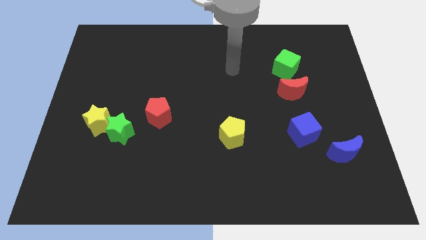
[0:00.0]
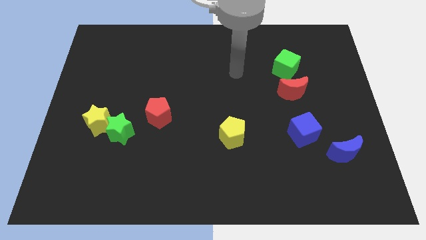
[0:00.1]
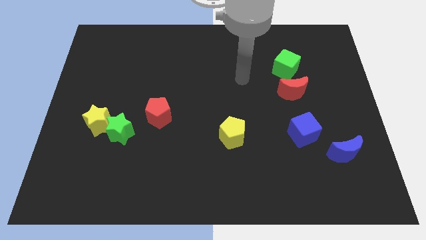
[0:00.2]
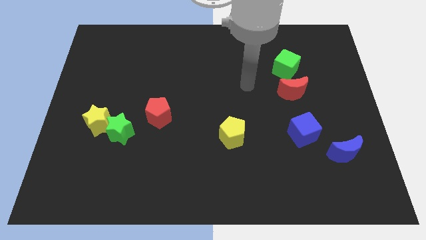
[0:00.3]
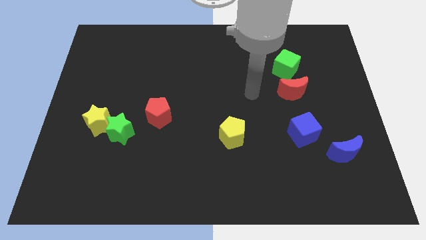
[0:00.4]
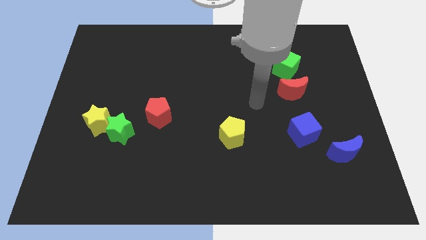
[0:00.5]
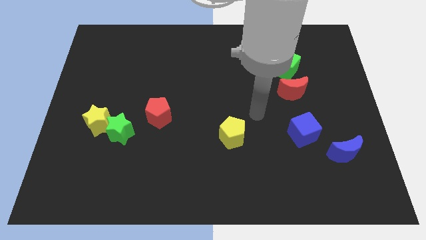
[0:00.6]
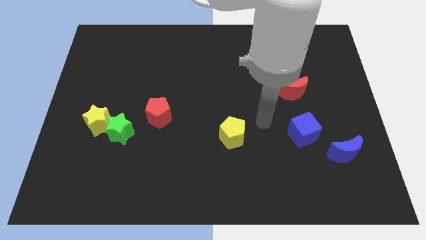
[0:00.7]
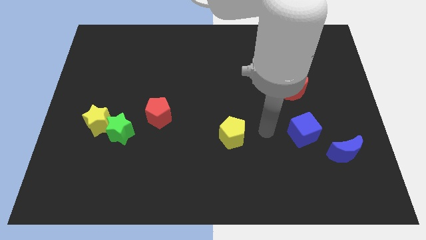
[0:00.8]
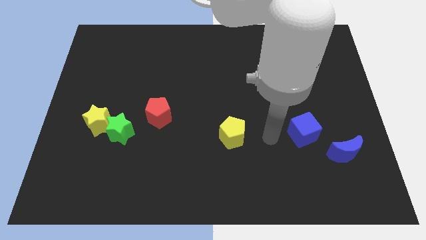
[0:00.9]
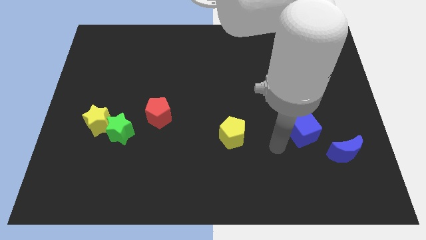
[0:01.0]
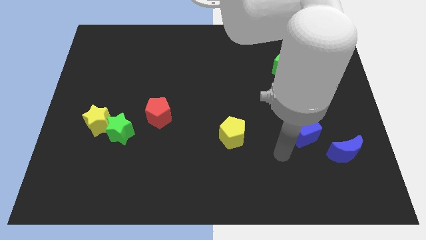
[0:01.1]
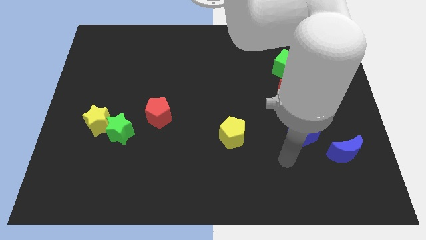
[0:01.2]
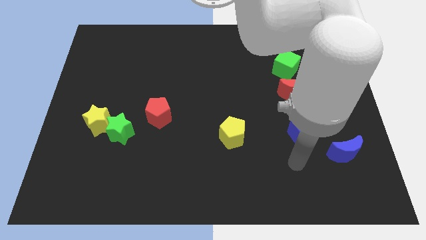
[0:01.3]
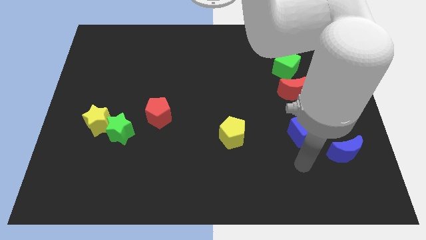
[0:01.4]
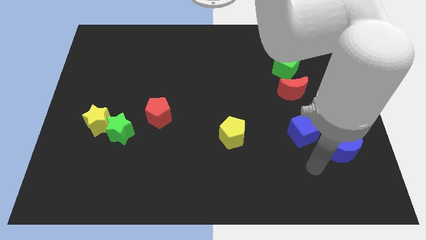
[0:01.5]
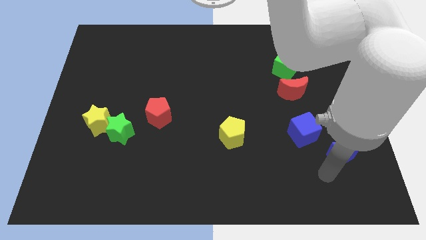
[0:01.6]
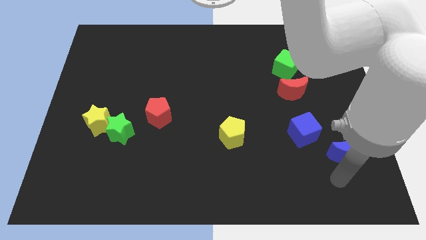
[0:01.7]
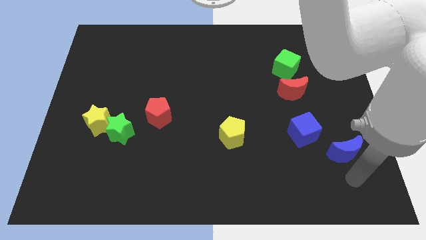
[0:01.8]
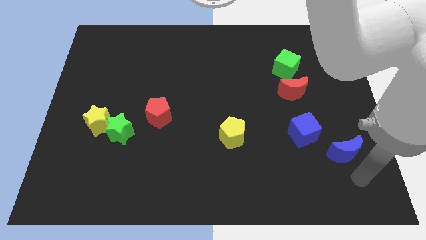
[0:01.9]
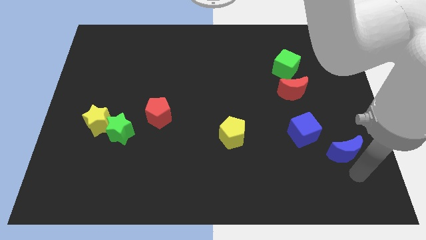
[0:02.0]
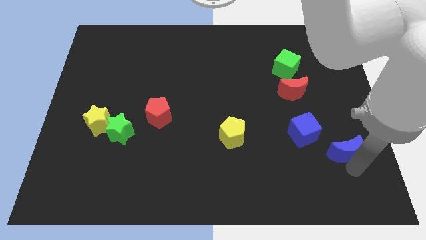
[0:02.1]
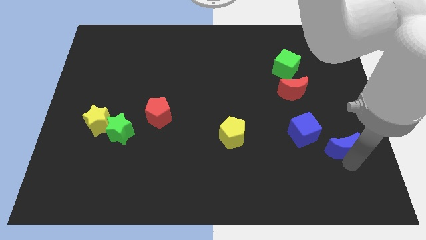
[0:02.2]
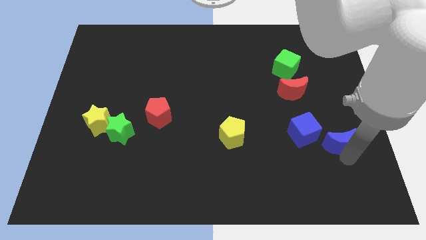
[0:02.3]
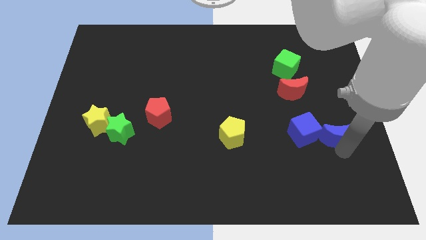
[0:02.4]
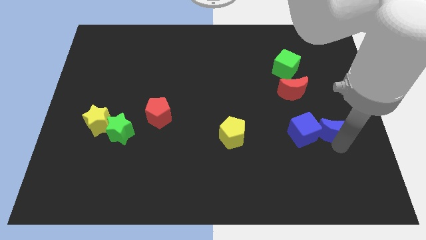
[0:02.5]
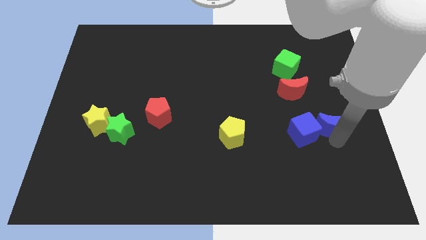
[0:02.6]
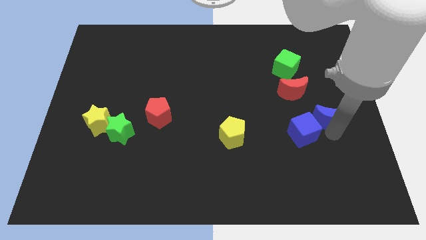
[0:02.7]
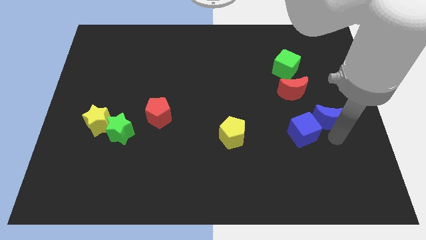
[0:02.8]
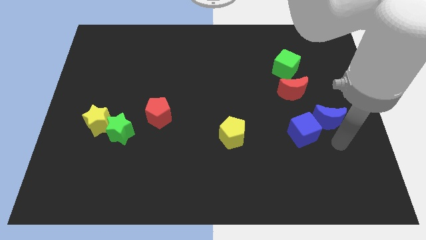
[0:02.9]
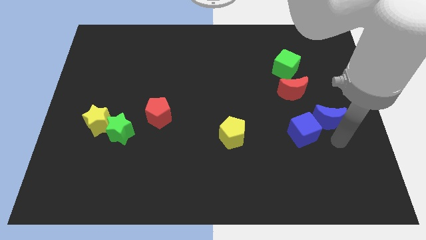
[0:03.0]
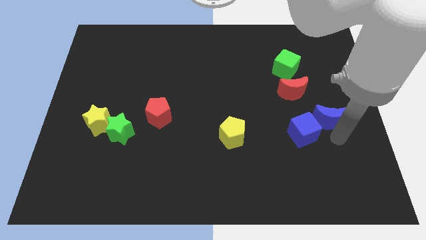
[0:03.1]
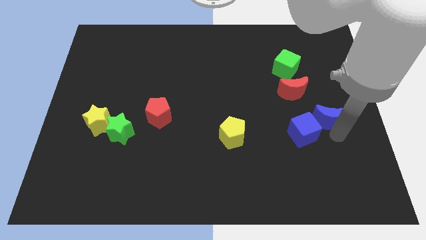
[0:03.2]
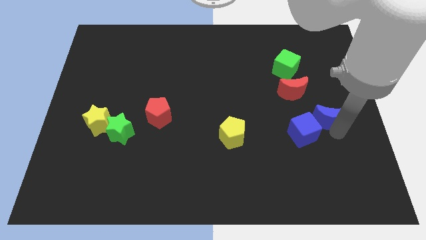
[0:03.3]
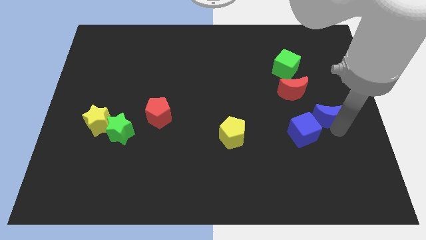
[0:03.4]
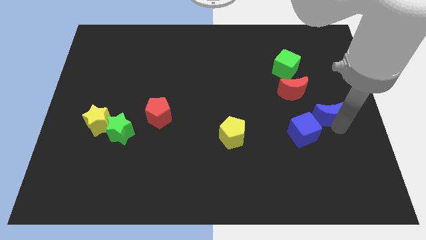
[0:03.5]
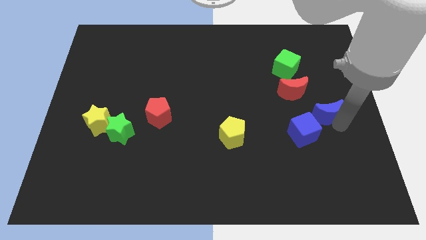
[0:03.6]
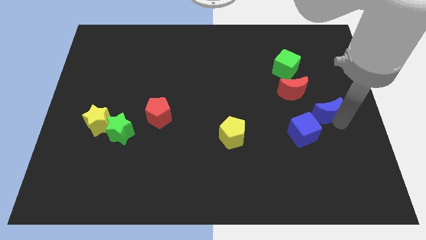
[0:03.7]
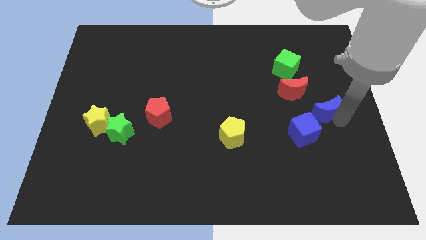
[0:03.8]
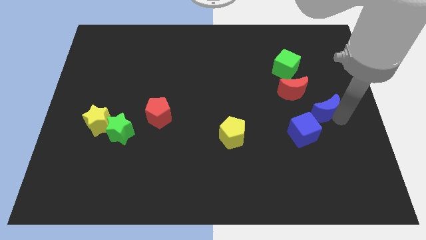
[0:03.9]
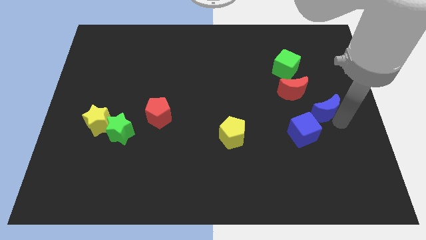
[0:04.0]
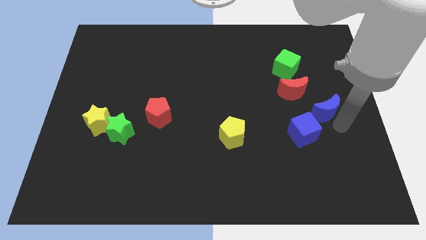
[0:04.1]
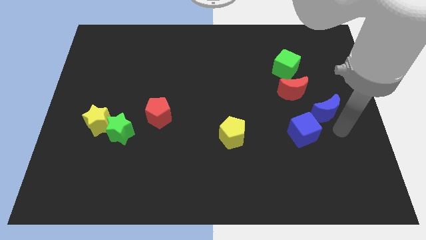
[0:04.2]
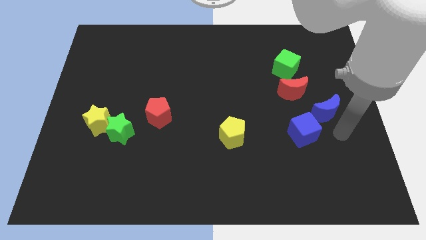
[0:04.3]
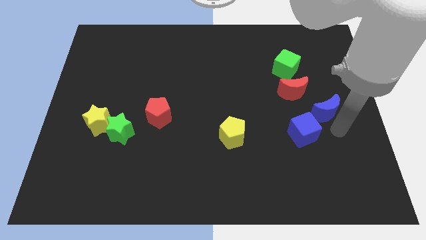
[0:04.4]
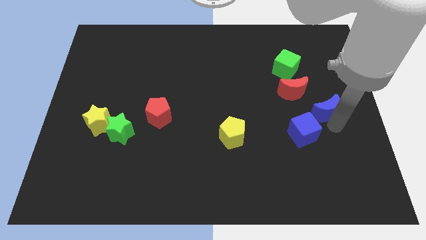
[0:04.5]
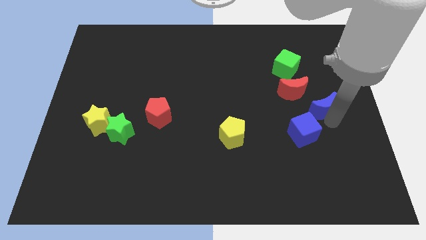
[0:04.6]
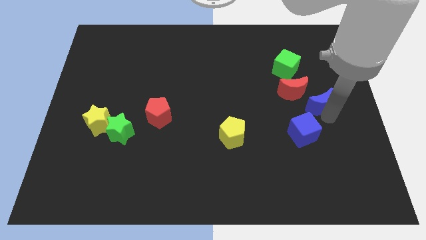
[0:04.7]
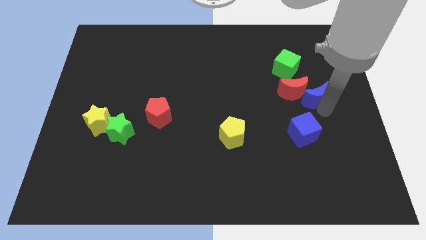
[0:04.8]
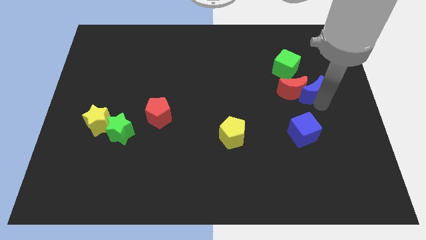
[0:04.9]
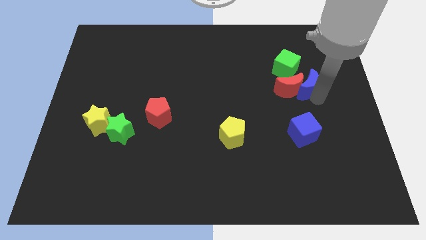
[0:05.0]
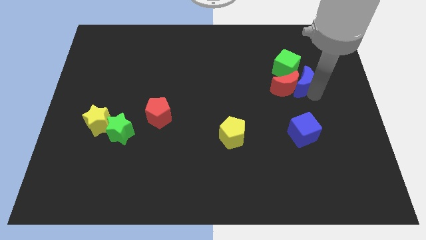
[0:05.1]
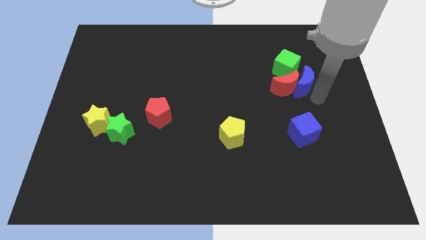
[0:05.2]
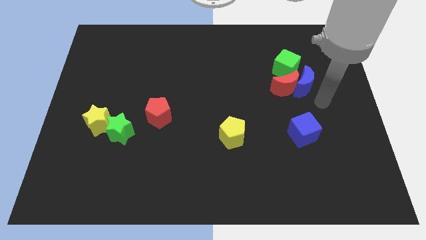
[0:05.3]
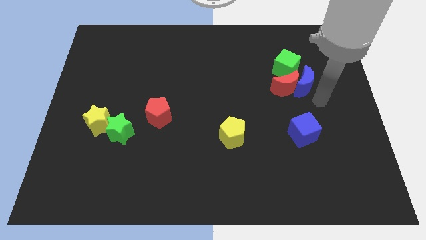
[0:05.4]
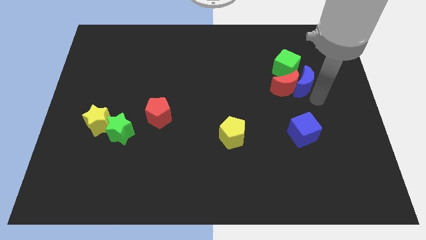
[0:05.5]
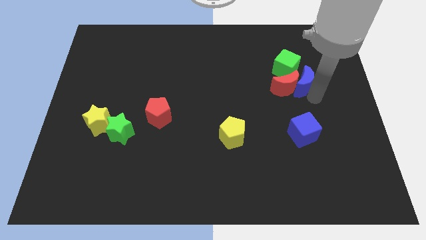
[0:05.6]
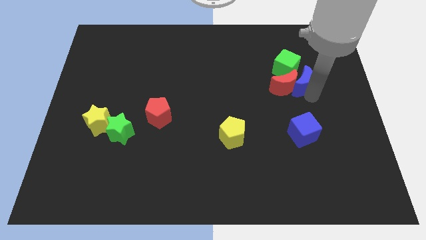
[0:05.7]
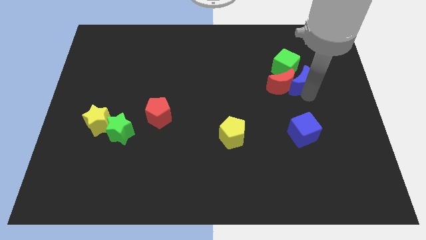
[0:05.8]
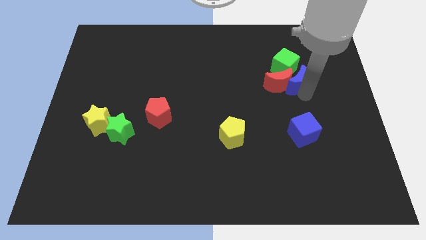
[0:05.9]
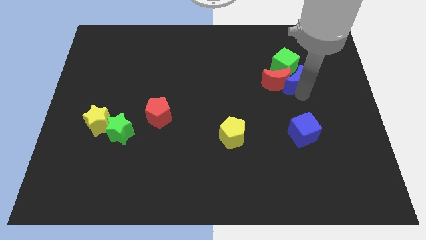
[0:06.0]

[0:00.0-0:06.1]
put the blue moon close to the green cube

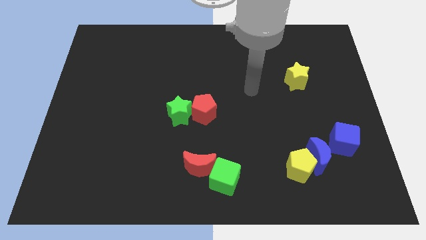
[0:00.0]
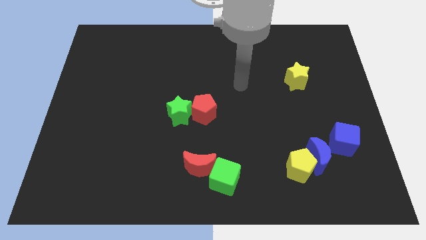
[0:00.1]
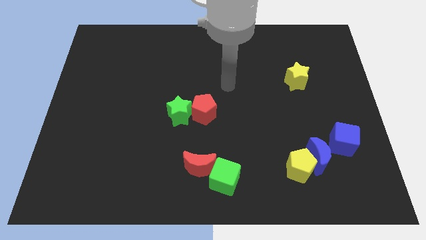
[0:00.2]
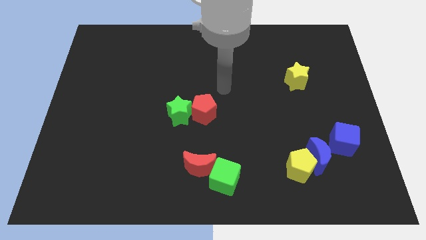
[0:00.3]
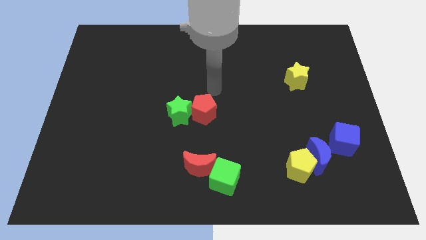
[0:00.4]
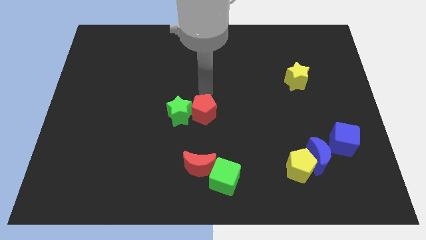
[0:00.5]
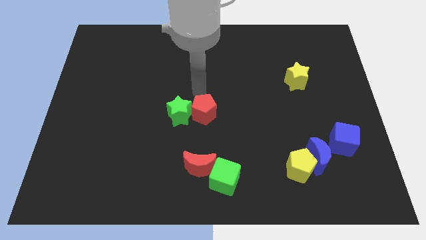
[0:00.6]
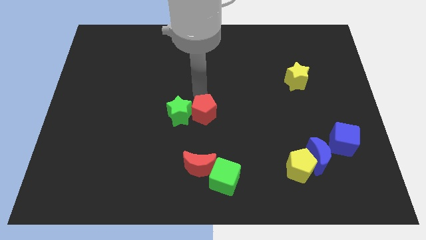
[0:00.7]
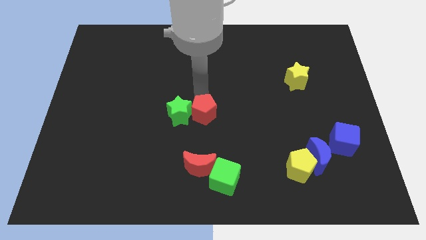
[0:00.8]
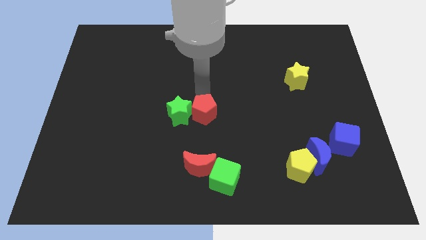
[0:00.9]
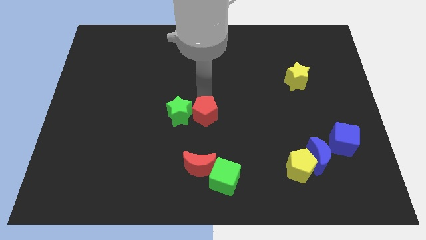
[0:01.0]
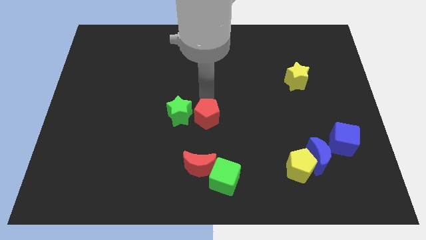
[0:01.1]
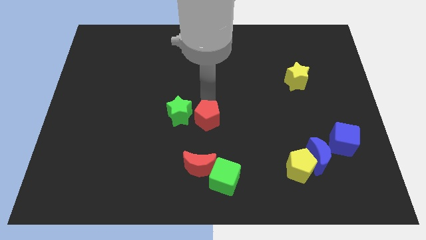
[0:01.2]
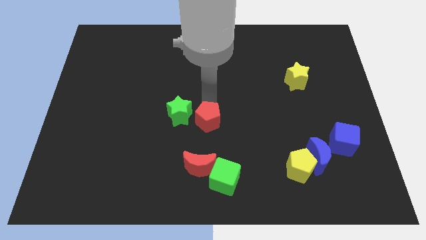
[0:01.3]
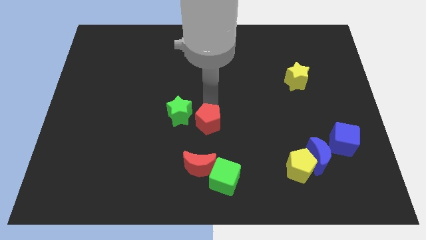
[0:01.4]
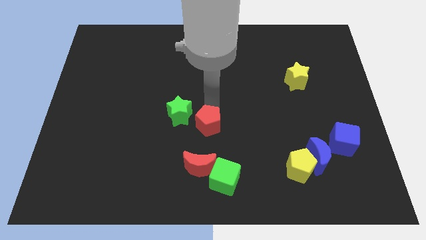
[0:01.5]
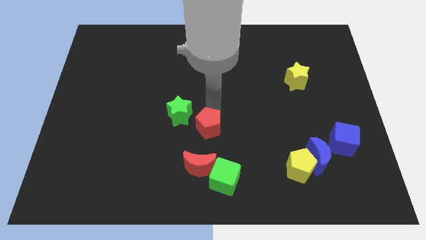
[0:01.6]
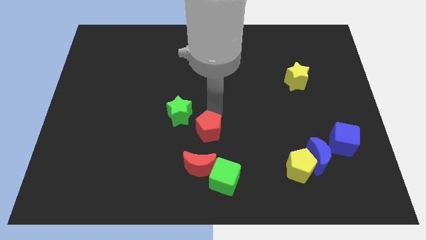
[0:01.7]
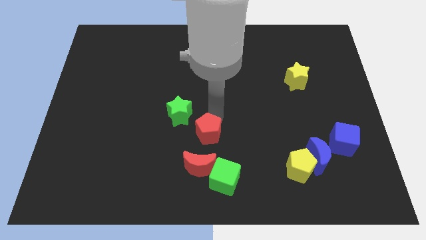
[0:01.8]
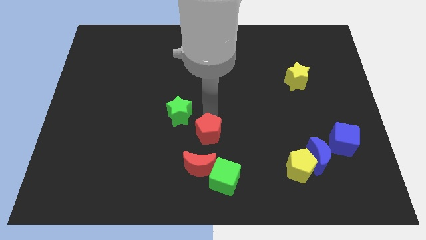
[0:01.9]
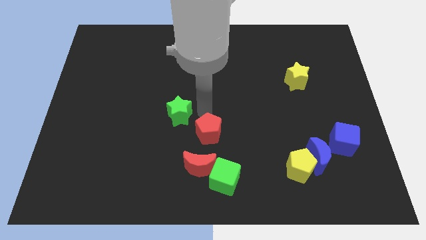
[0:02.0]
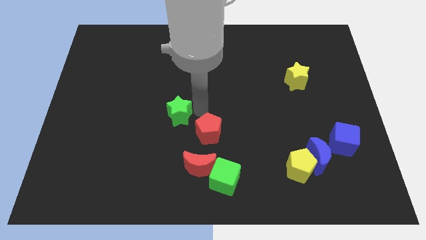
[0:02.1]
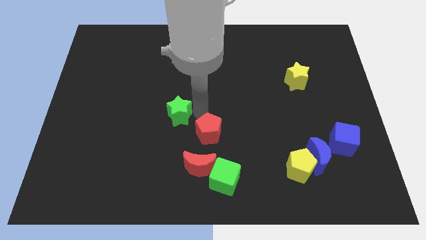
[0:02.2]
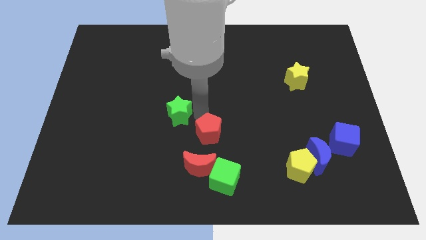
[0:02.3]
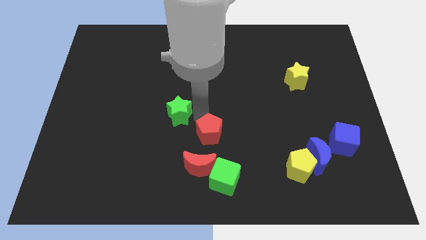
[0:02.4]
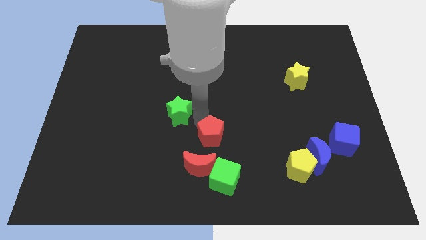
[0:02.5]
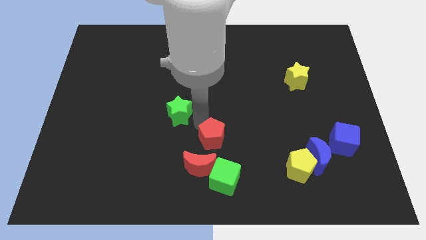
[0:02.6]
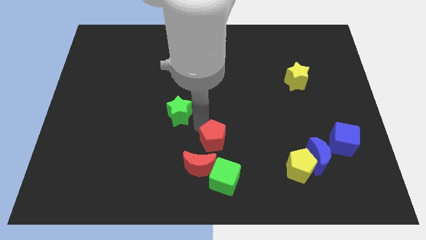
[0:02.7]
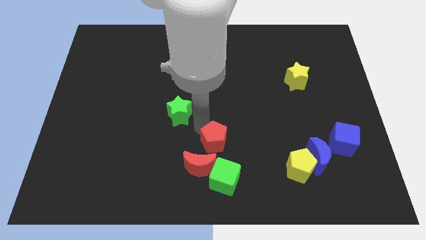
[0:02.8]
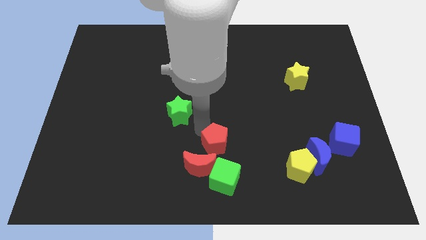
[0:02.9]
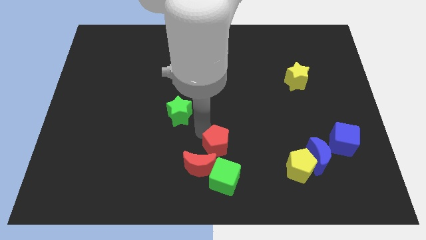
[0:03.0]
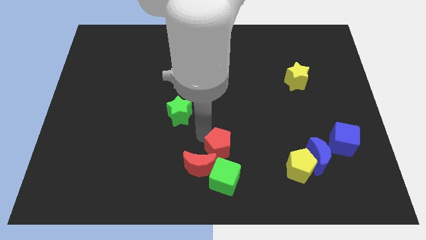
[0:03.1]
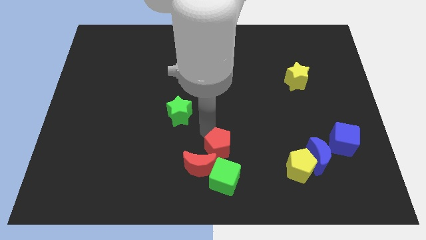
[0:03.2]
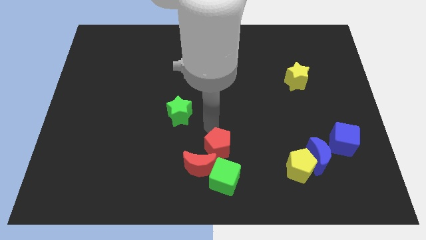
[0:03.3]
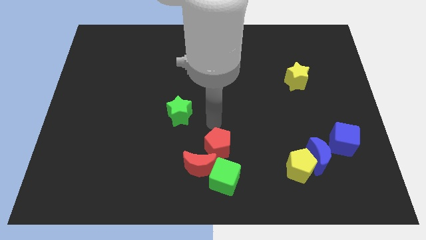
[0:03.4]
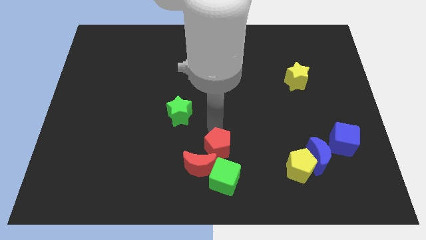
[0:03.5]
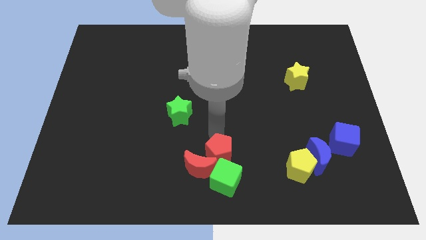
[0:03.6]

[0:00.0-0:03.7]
move the red pentagon towards the green cube
